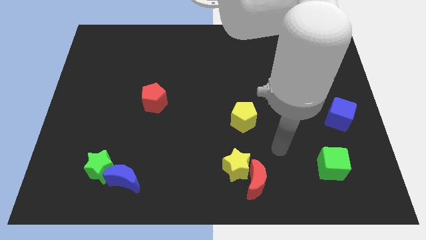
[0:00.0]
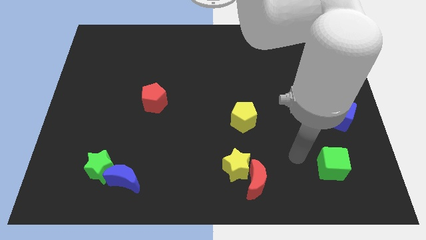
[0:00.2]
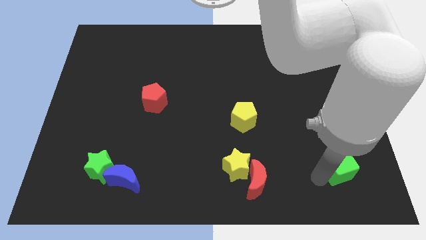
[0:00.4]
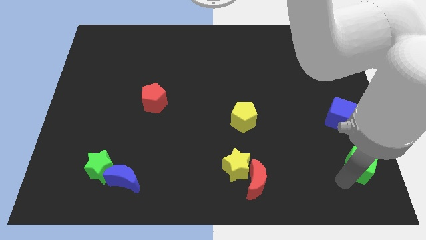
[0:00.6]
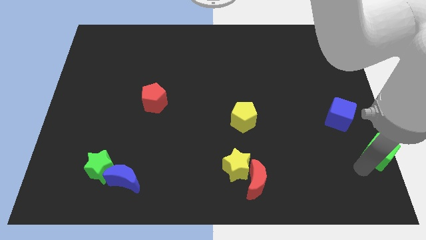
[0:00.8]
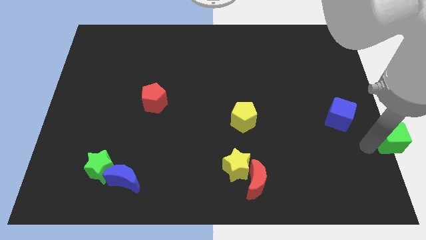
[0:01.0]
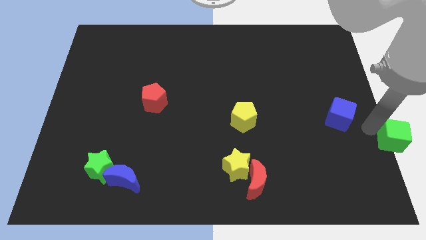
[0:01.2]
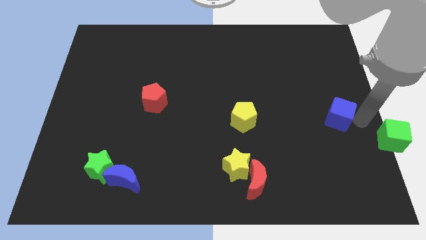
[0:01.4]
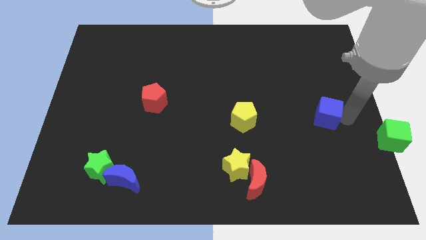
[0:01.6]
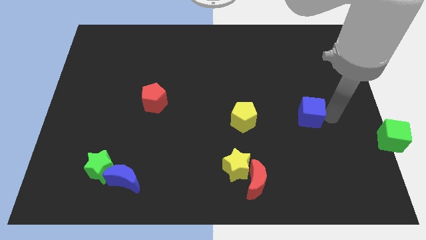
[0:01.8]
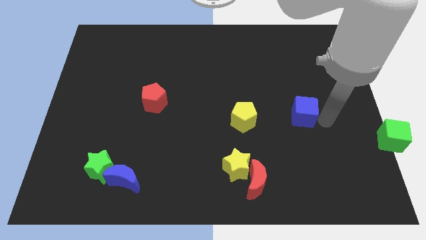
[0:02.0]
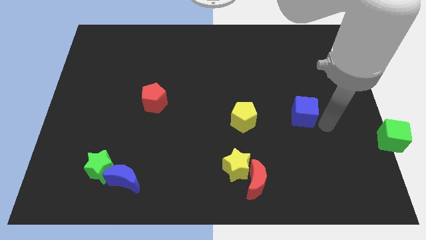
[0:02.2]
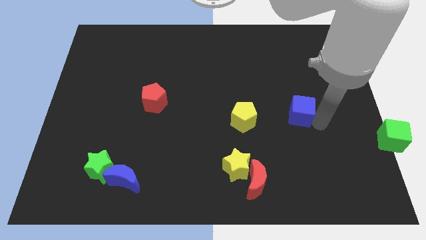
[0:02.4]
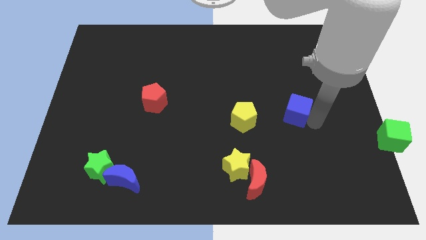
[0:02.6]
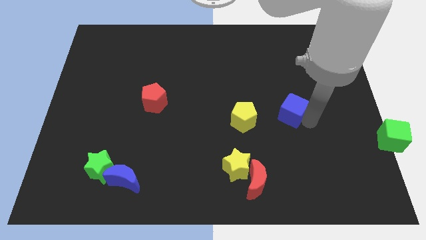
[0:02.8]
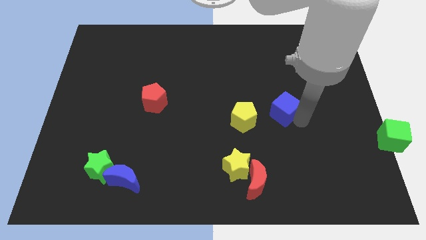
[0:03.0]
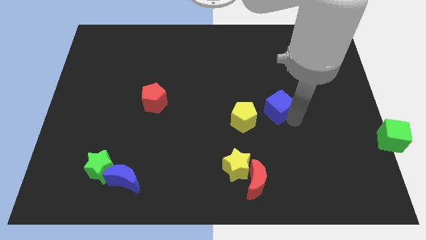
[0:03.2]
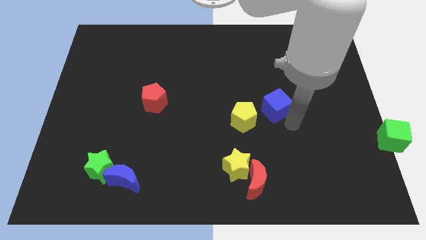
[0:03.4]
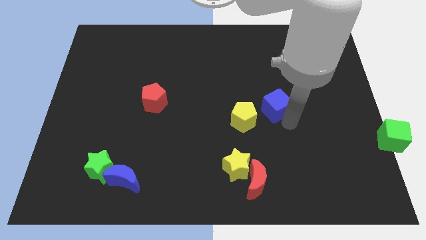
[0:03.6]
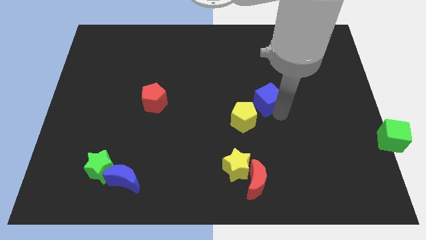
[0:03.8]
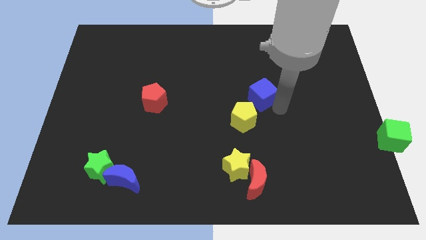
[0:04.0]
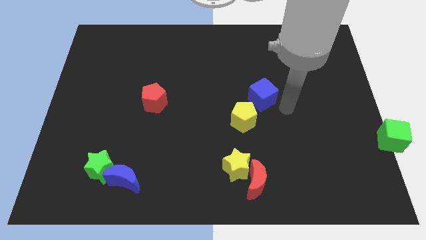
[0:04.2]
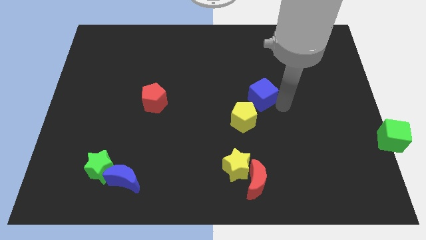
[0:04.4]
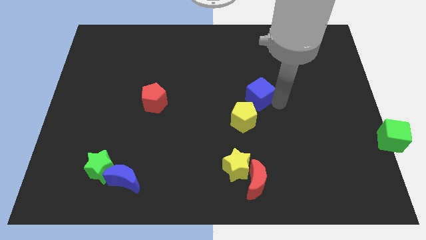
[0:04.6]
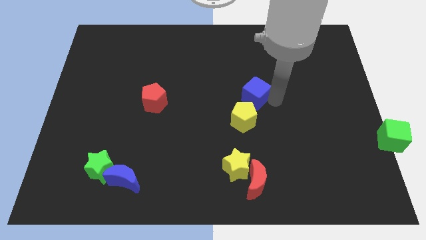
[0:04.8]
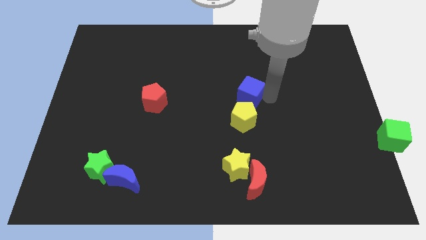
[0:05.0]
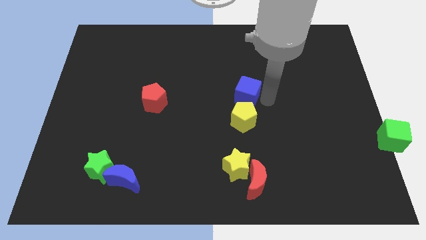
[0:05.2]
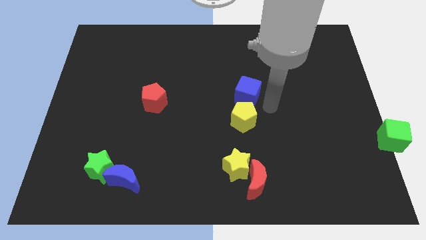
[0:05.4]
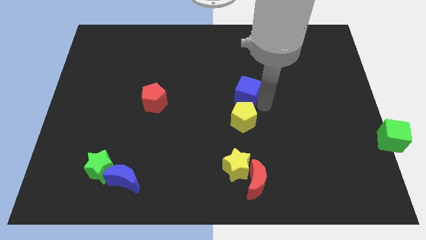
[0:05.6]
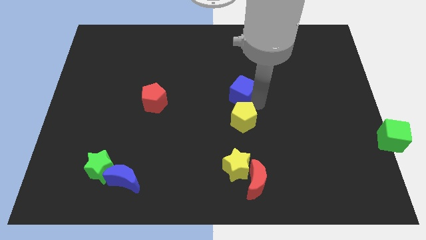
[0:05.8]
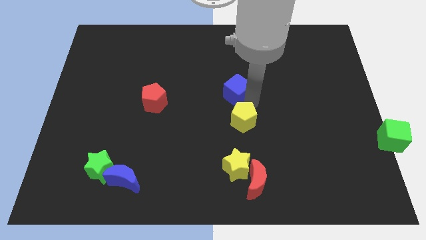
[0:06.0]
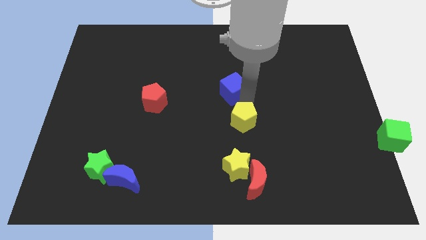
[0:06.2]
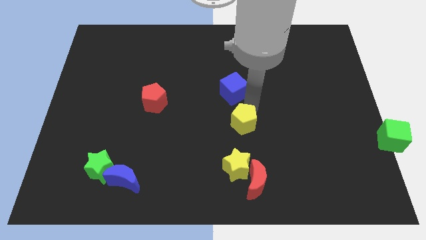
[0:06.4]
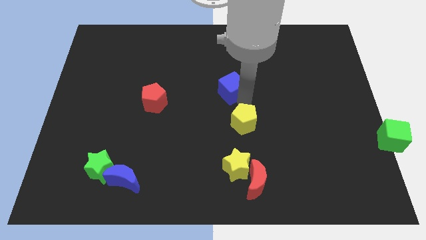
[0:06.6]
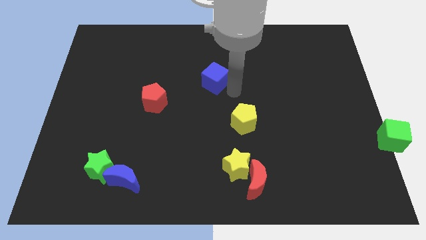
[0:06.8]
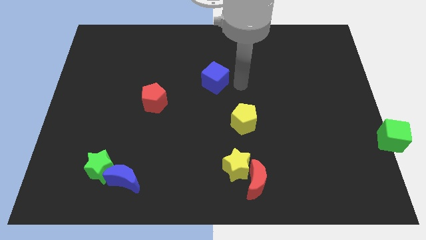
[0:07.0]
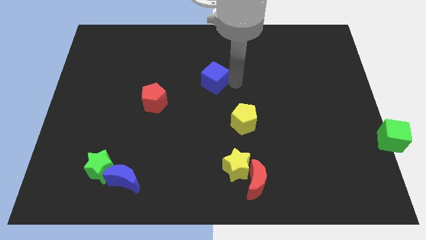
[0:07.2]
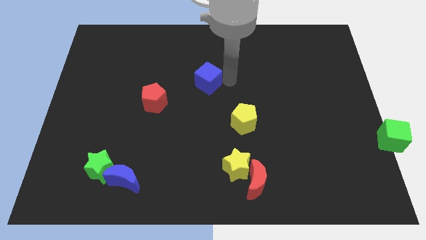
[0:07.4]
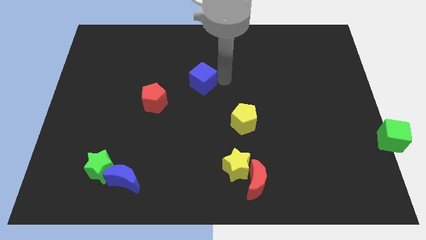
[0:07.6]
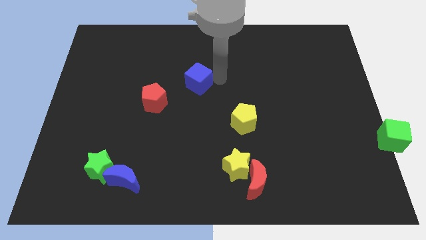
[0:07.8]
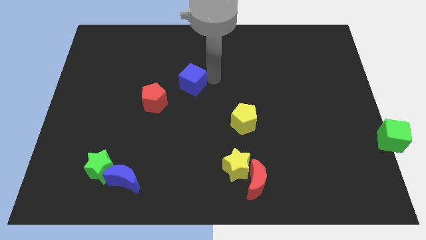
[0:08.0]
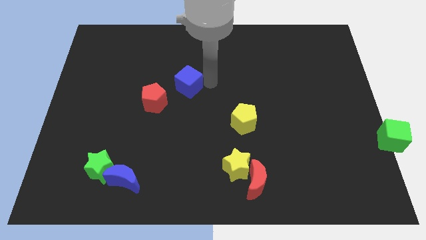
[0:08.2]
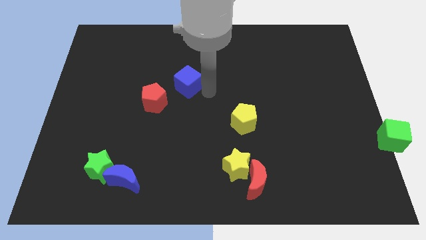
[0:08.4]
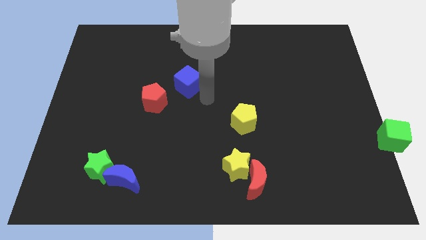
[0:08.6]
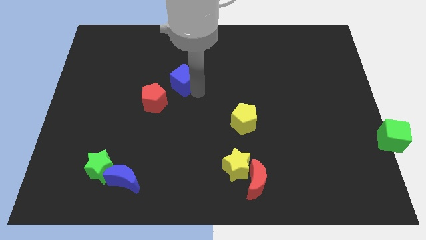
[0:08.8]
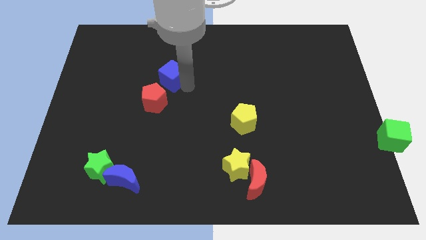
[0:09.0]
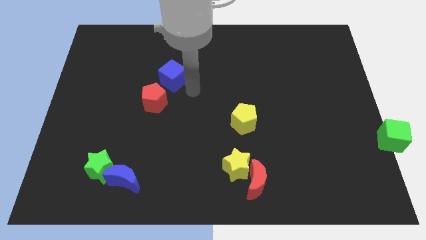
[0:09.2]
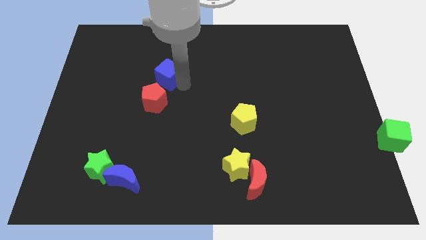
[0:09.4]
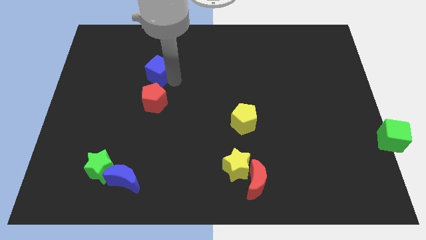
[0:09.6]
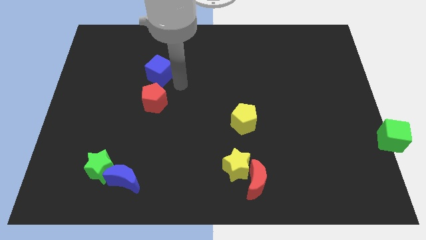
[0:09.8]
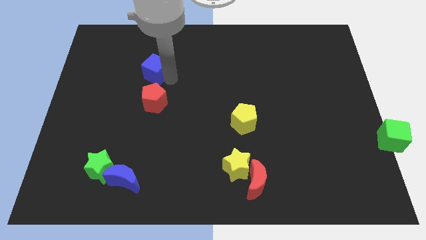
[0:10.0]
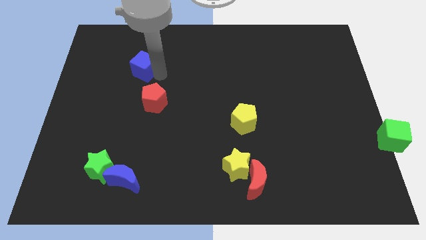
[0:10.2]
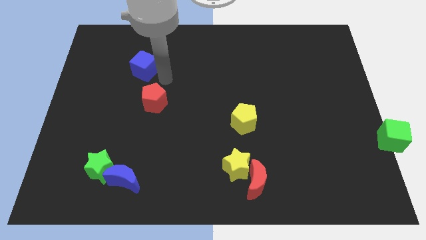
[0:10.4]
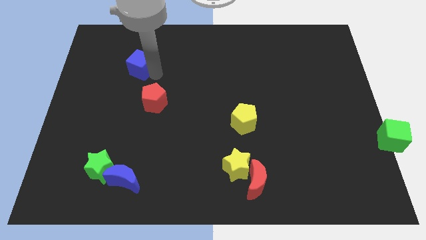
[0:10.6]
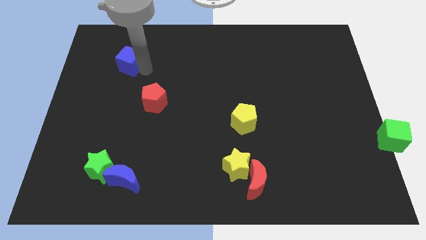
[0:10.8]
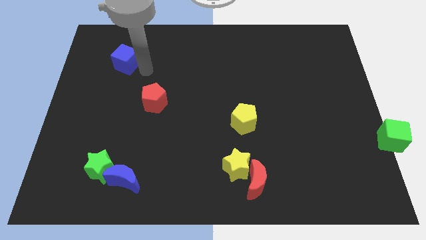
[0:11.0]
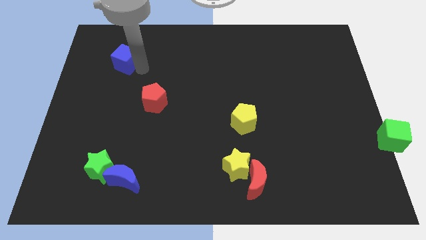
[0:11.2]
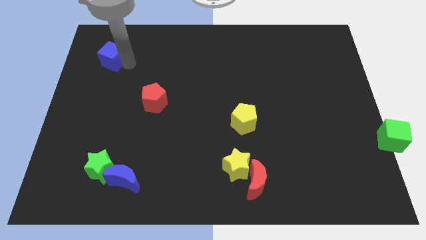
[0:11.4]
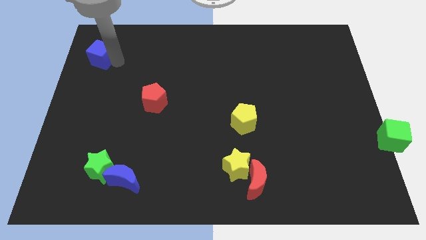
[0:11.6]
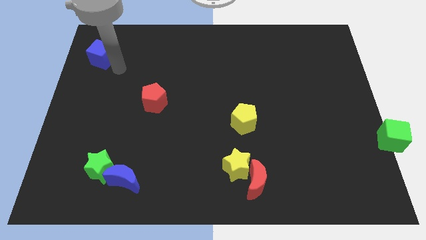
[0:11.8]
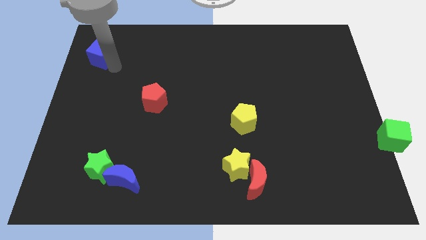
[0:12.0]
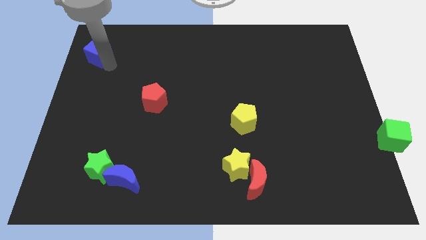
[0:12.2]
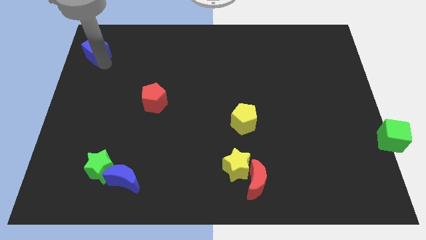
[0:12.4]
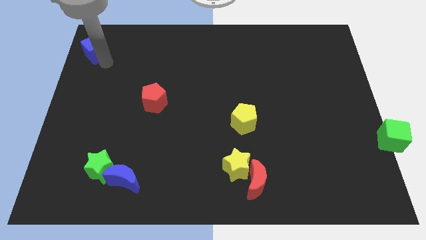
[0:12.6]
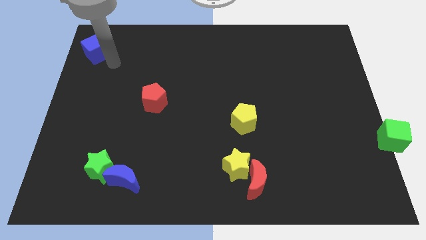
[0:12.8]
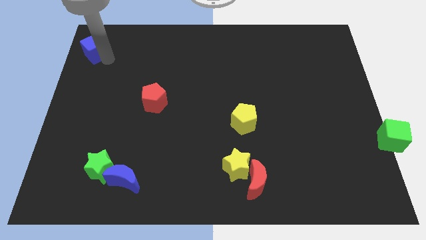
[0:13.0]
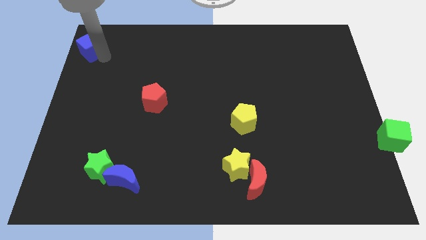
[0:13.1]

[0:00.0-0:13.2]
move the blue cube to the top left corner
